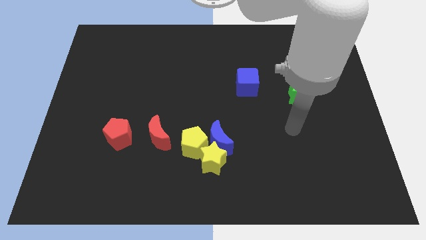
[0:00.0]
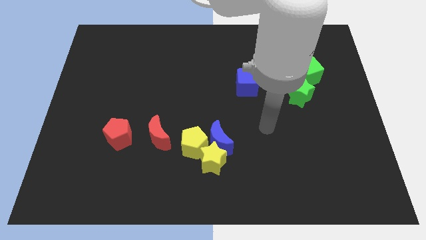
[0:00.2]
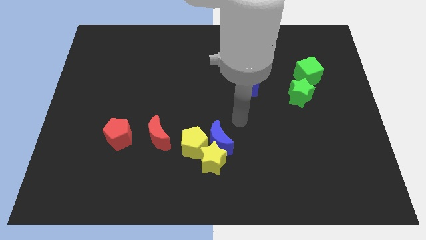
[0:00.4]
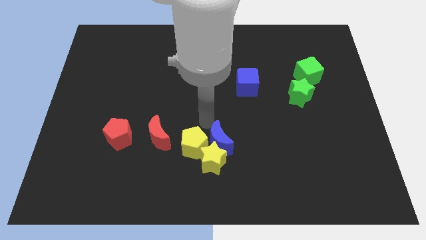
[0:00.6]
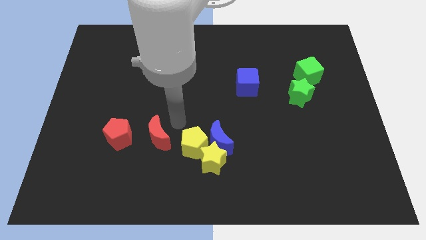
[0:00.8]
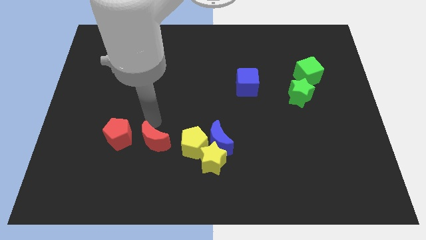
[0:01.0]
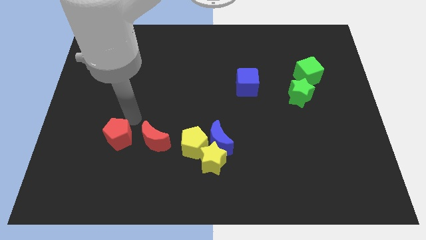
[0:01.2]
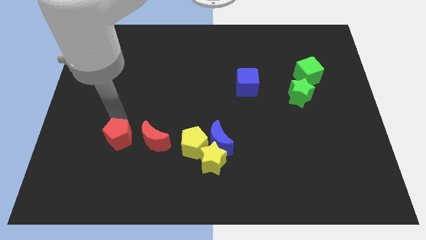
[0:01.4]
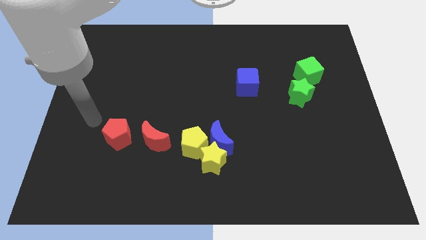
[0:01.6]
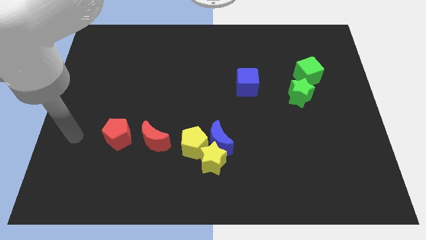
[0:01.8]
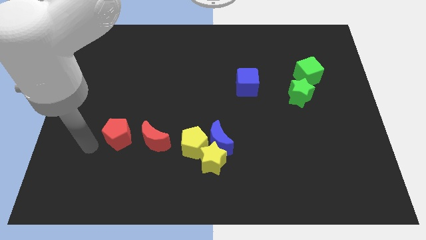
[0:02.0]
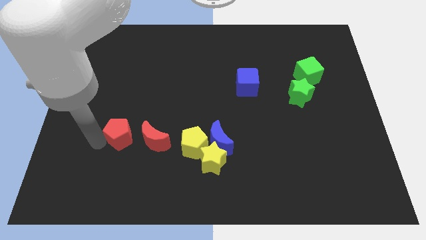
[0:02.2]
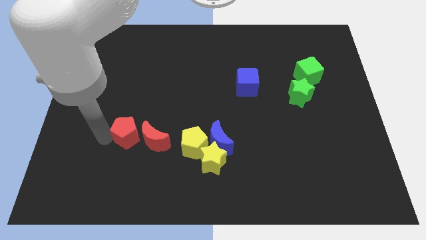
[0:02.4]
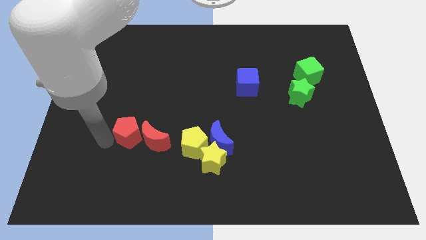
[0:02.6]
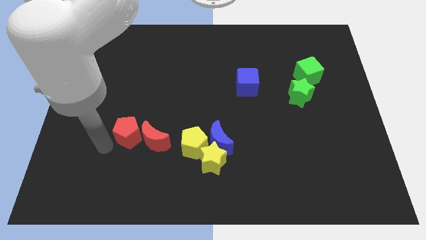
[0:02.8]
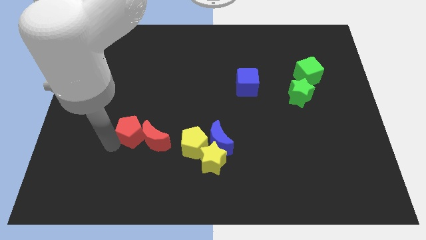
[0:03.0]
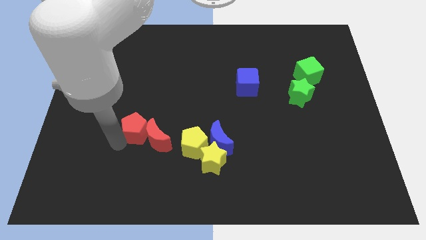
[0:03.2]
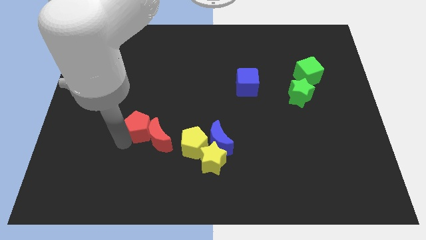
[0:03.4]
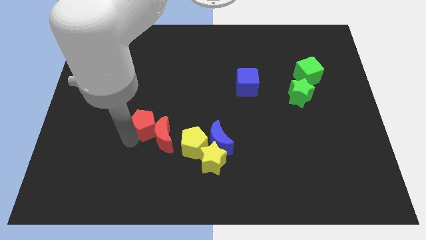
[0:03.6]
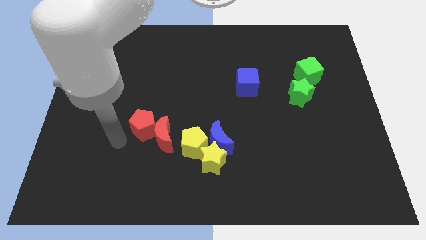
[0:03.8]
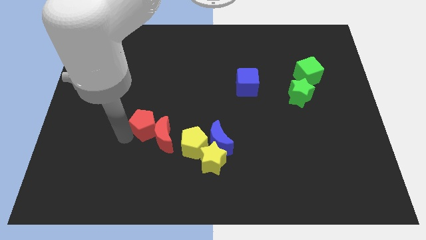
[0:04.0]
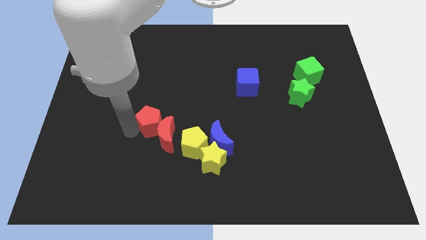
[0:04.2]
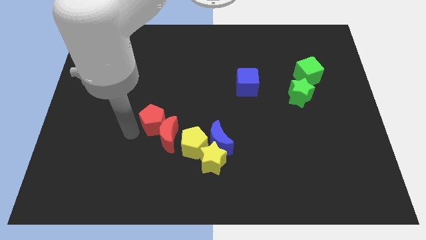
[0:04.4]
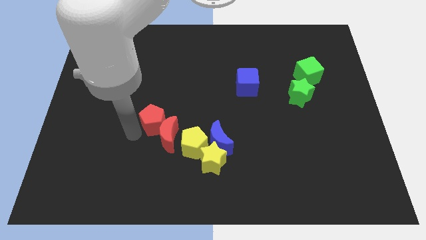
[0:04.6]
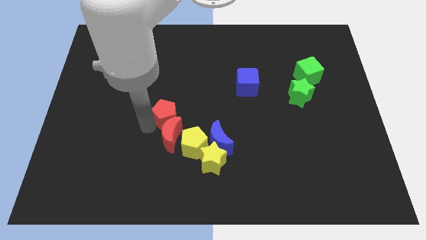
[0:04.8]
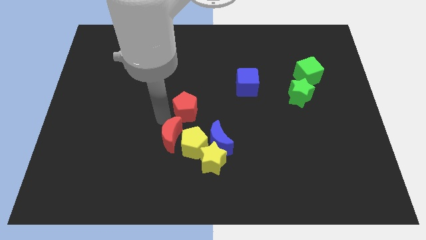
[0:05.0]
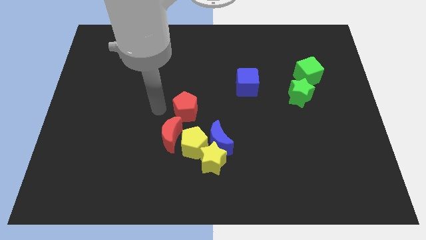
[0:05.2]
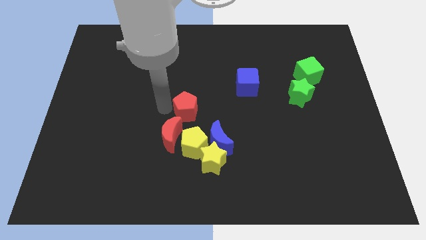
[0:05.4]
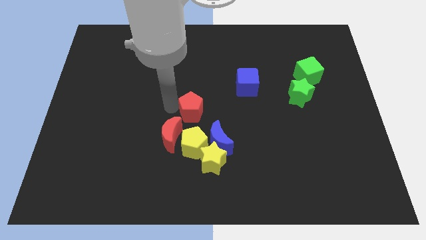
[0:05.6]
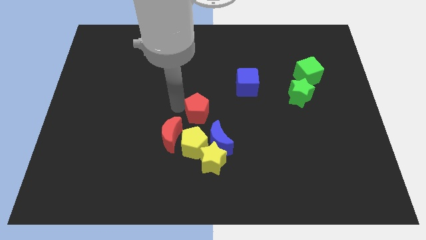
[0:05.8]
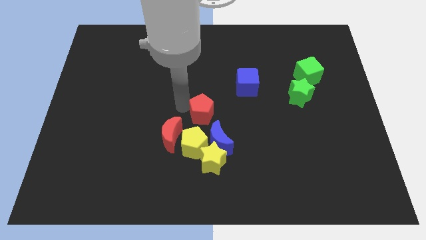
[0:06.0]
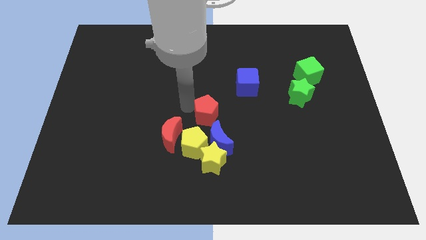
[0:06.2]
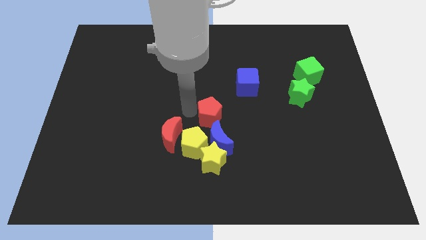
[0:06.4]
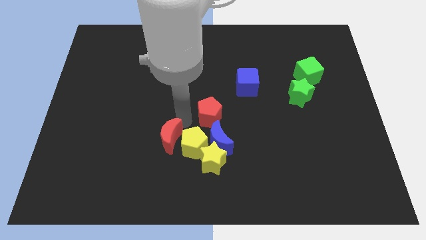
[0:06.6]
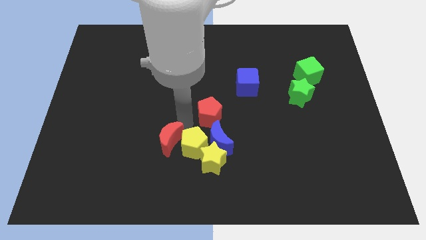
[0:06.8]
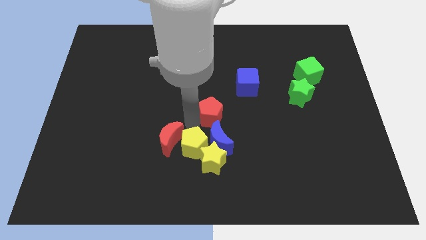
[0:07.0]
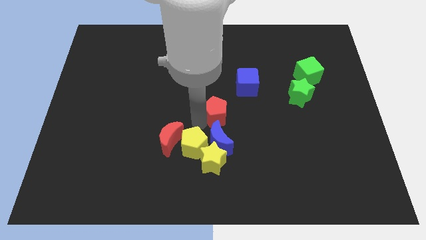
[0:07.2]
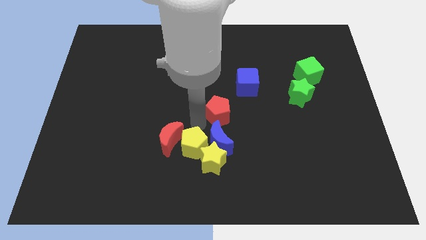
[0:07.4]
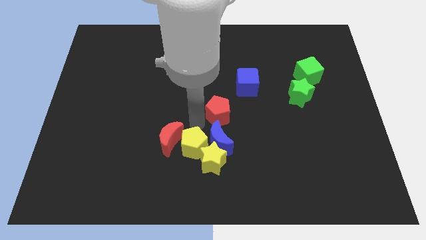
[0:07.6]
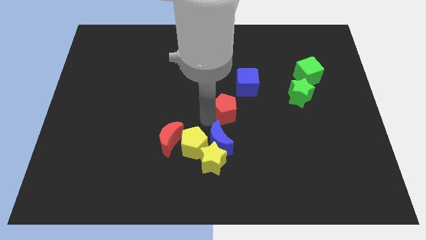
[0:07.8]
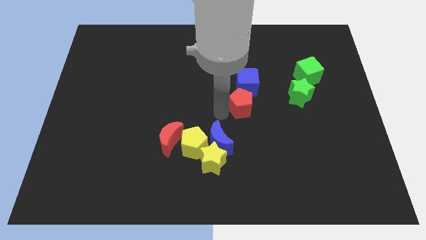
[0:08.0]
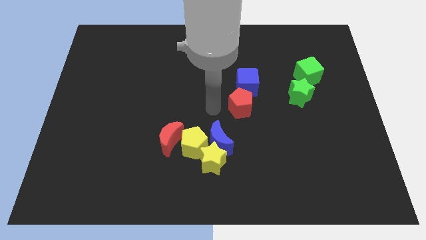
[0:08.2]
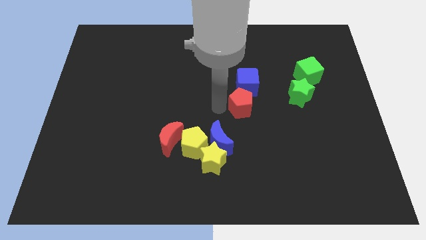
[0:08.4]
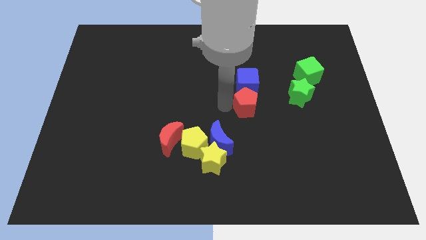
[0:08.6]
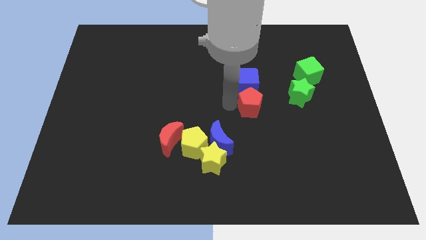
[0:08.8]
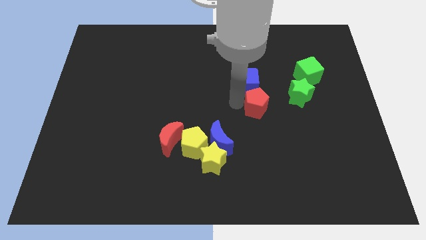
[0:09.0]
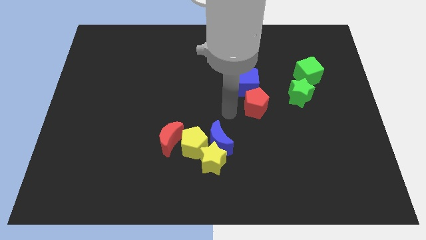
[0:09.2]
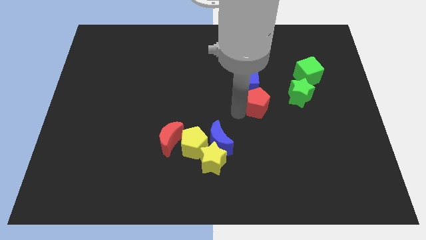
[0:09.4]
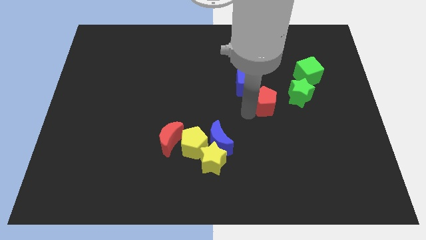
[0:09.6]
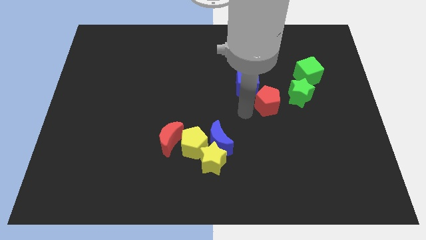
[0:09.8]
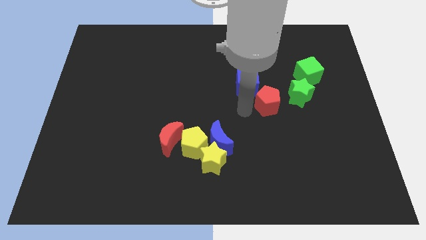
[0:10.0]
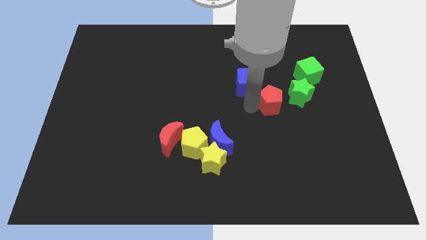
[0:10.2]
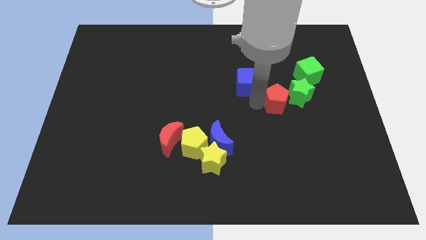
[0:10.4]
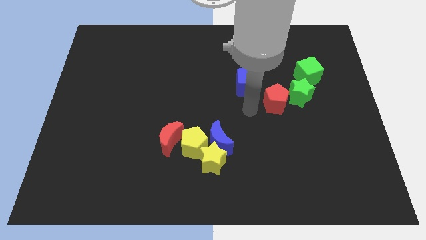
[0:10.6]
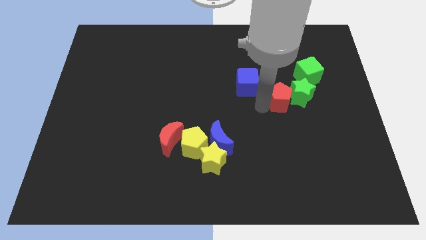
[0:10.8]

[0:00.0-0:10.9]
push the red pentagon close to the green star

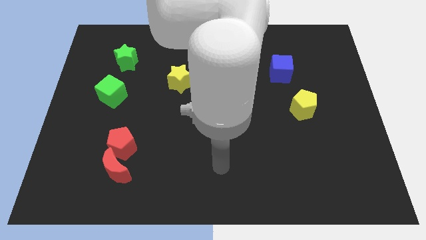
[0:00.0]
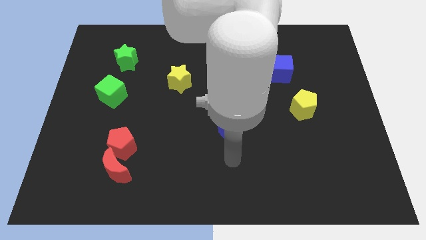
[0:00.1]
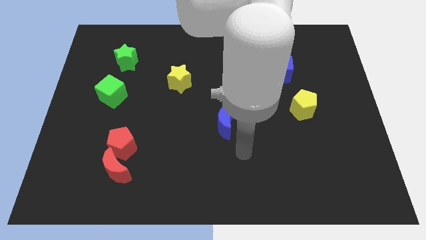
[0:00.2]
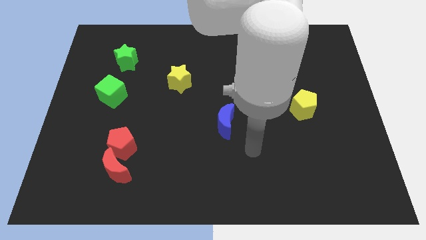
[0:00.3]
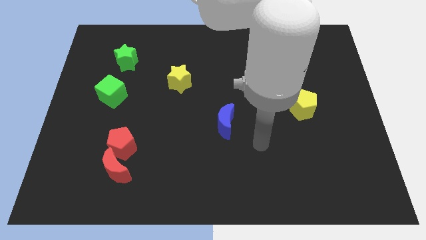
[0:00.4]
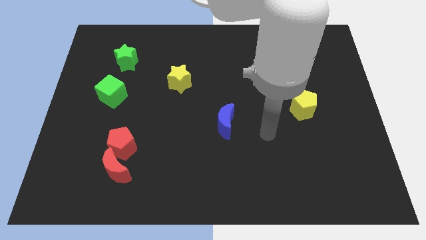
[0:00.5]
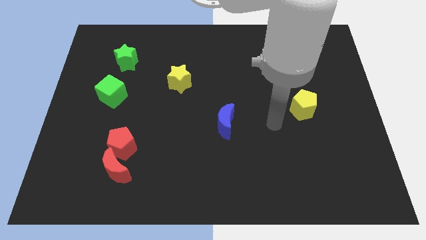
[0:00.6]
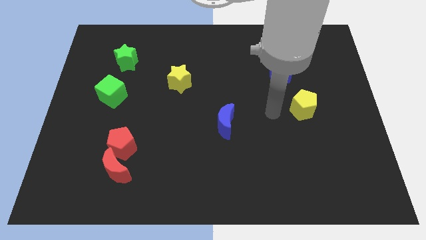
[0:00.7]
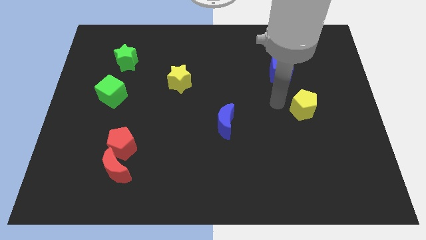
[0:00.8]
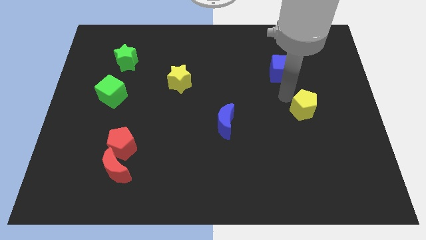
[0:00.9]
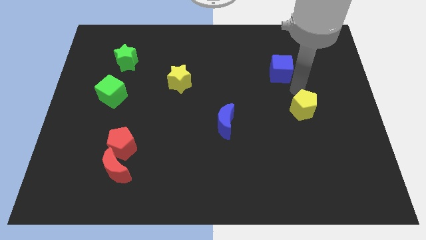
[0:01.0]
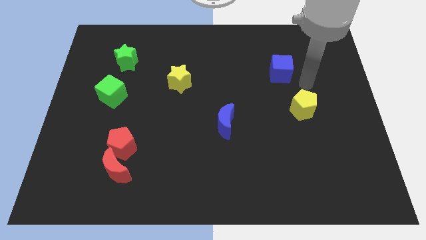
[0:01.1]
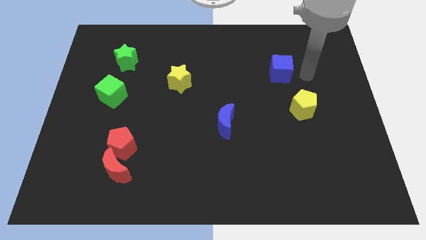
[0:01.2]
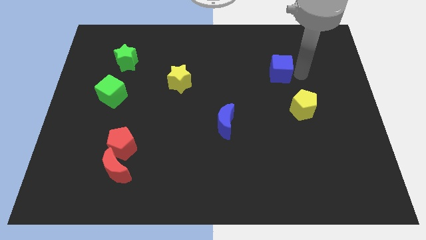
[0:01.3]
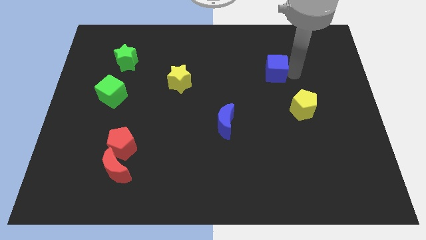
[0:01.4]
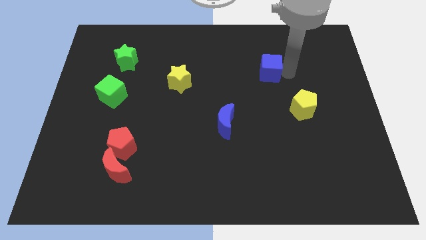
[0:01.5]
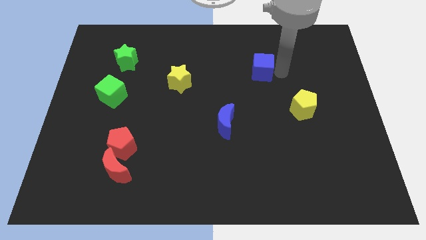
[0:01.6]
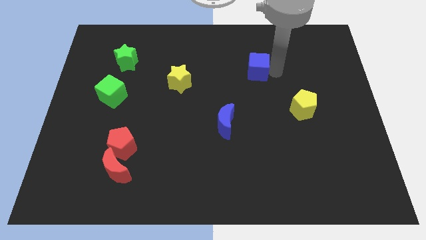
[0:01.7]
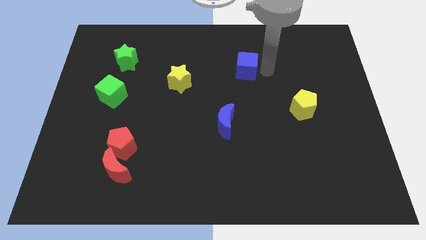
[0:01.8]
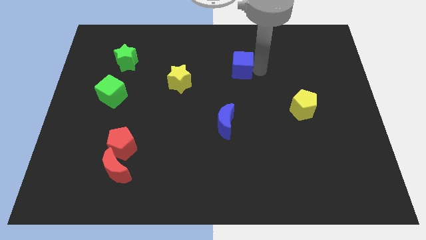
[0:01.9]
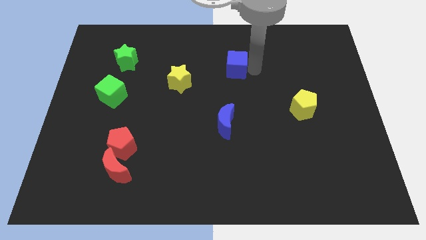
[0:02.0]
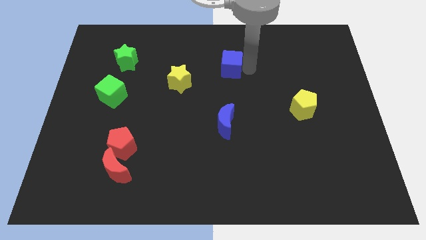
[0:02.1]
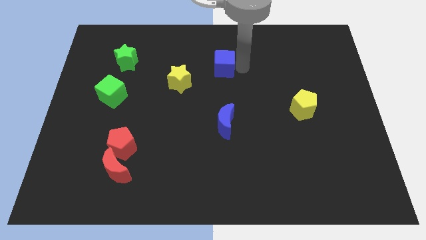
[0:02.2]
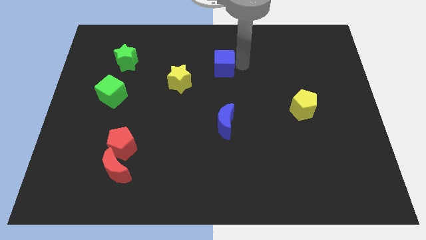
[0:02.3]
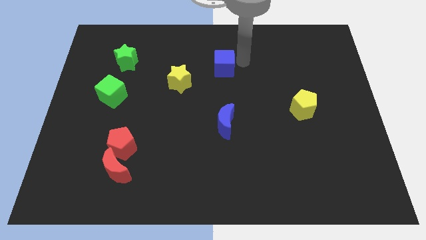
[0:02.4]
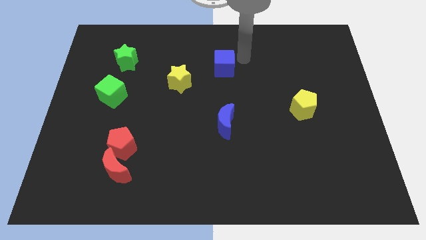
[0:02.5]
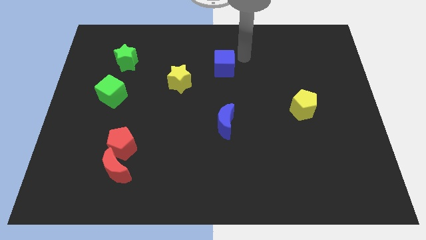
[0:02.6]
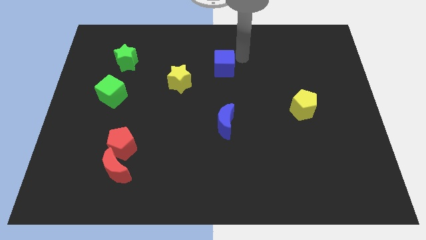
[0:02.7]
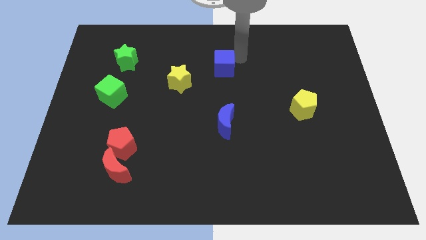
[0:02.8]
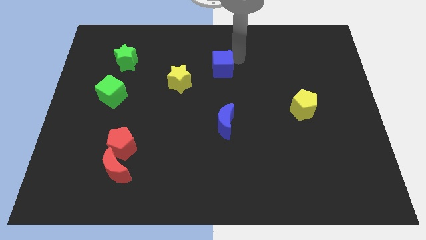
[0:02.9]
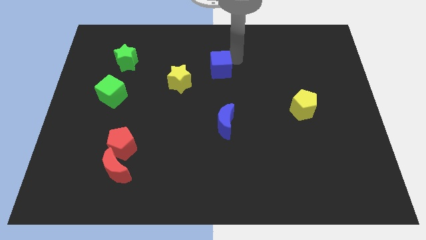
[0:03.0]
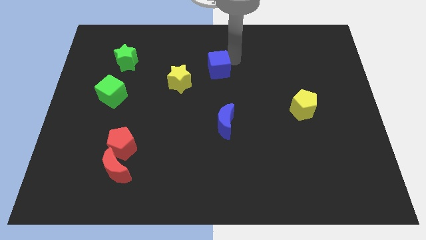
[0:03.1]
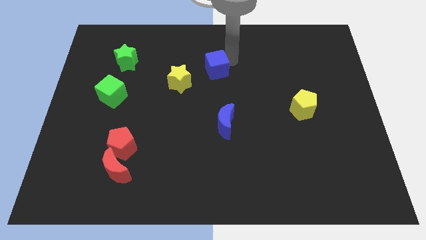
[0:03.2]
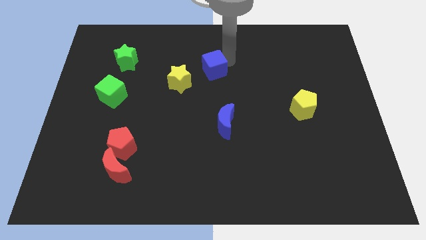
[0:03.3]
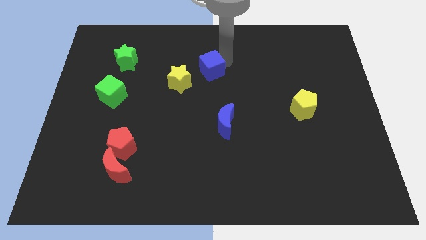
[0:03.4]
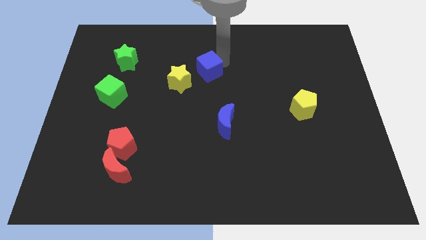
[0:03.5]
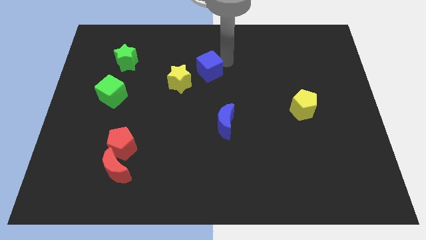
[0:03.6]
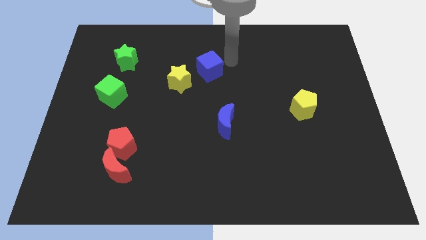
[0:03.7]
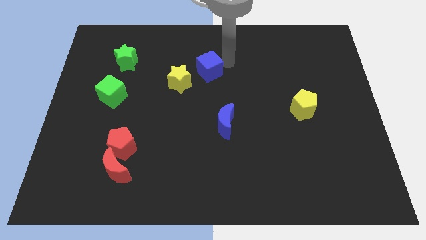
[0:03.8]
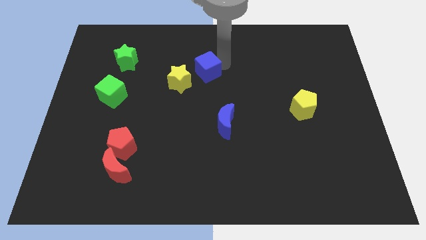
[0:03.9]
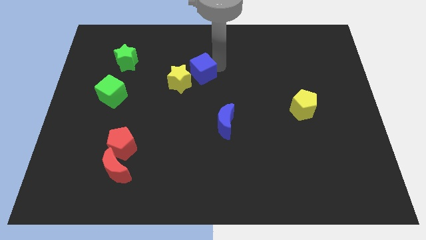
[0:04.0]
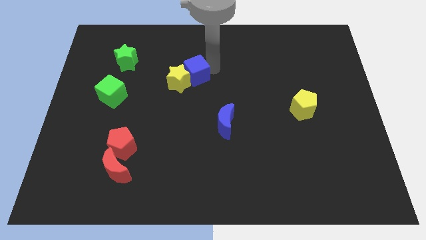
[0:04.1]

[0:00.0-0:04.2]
slide the blue cube close to the yellow star
